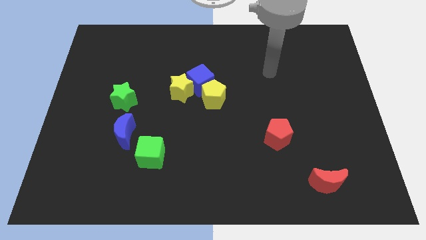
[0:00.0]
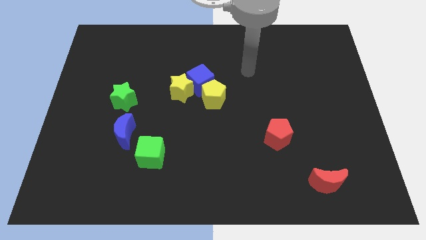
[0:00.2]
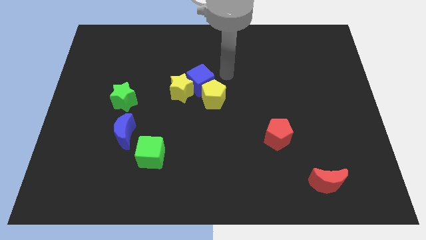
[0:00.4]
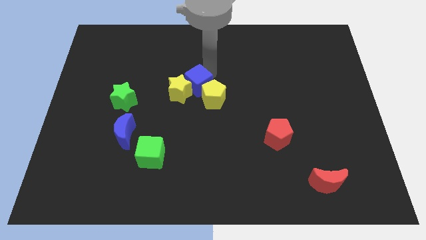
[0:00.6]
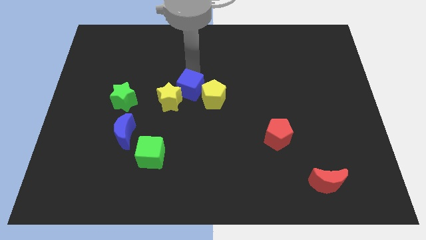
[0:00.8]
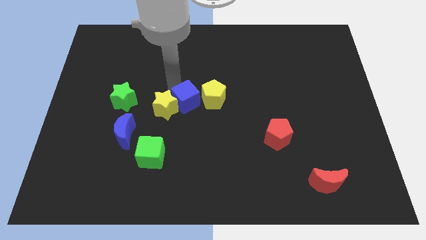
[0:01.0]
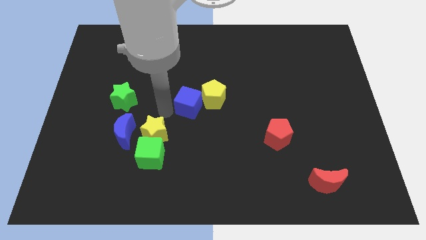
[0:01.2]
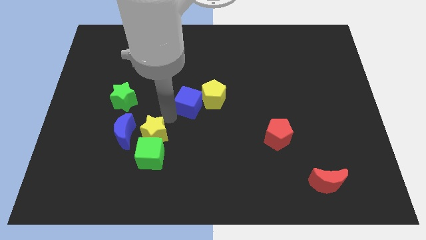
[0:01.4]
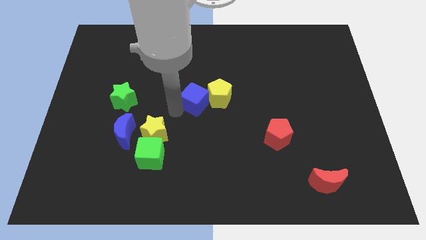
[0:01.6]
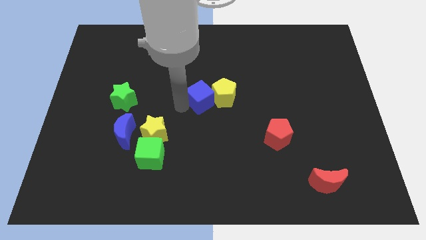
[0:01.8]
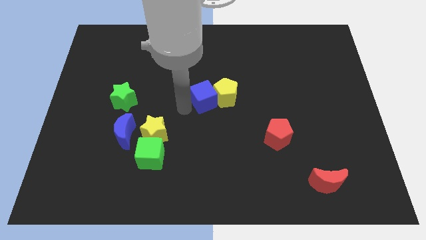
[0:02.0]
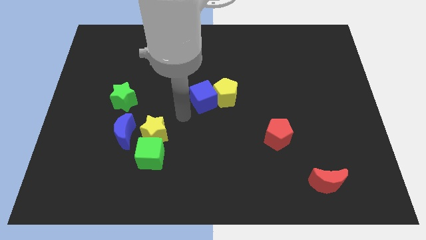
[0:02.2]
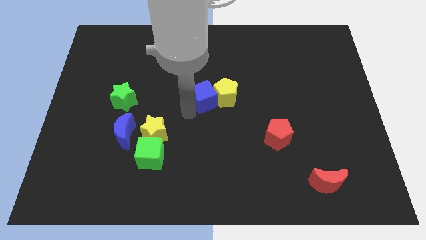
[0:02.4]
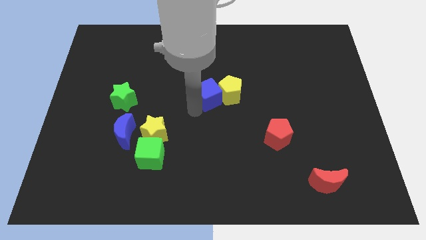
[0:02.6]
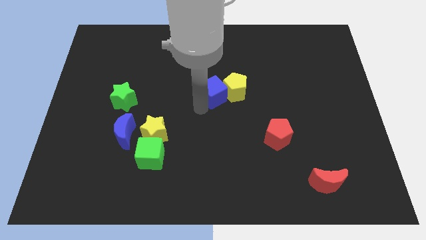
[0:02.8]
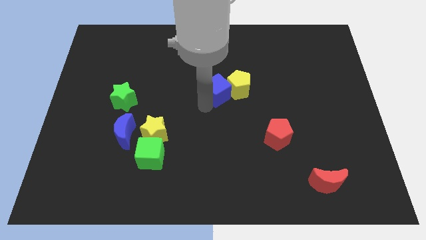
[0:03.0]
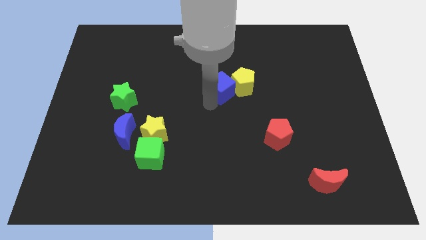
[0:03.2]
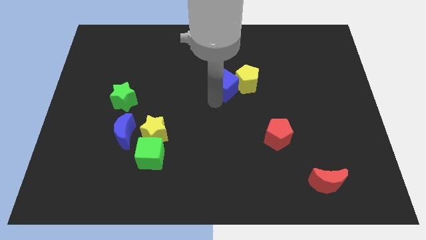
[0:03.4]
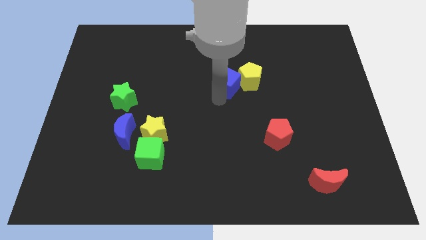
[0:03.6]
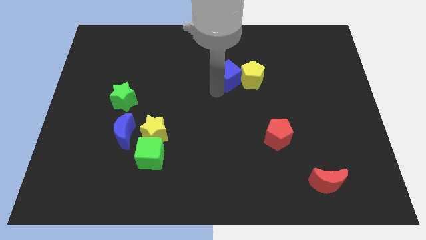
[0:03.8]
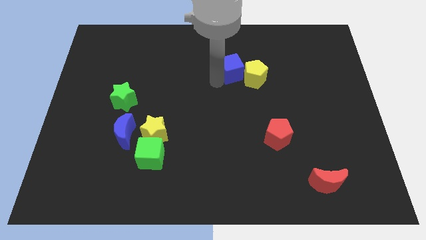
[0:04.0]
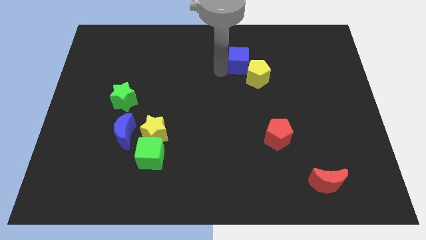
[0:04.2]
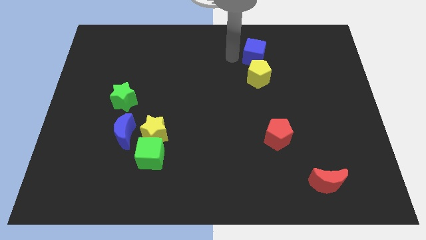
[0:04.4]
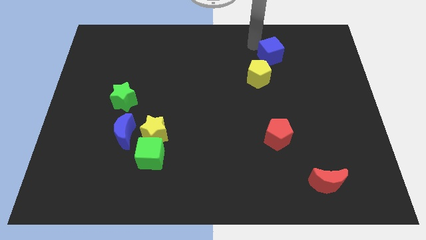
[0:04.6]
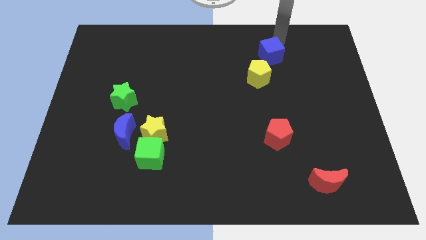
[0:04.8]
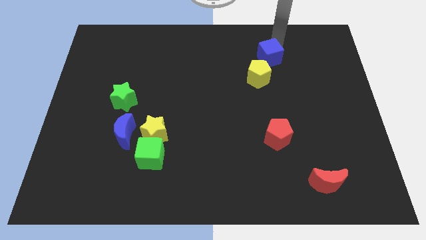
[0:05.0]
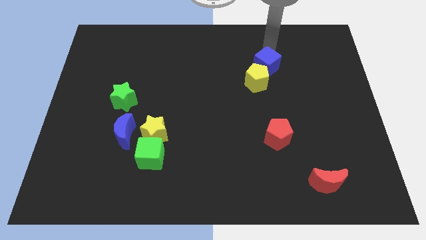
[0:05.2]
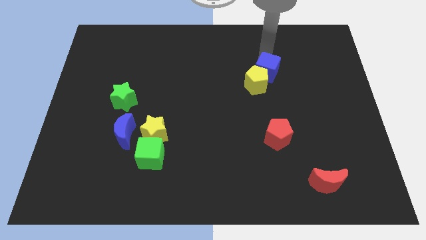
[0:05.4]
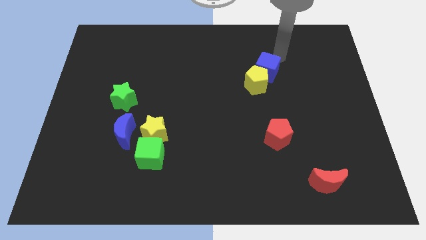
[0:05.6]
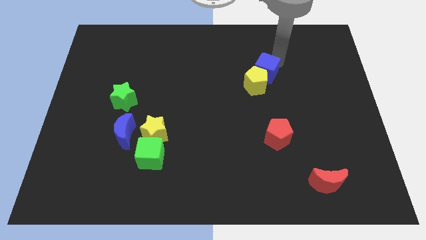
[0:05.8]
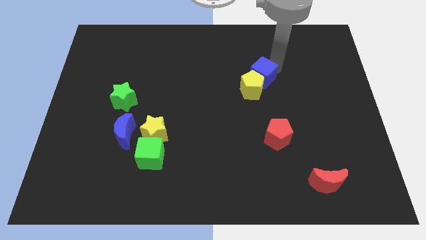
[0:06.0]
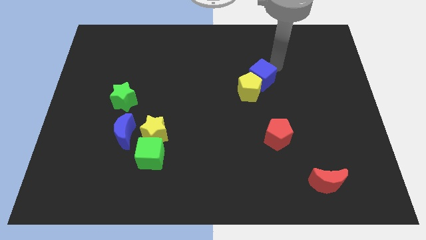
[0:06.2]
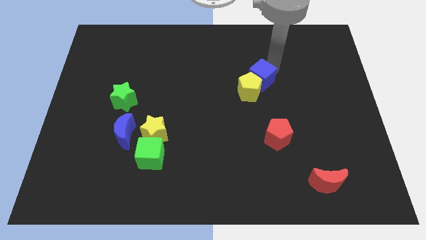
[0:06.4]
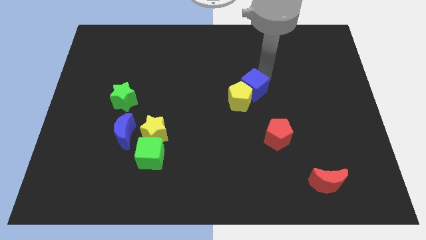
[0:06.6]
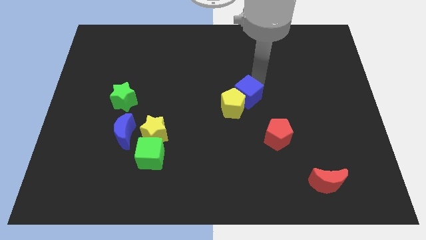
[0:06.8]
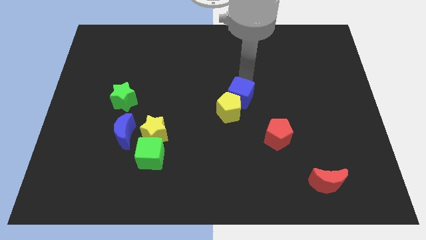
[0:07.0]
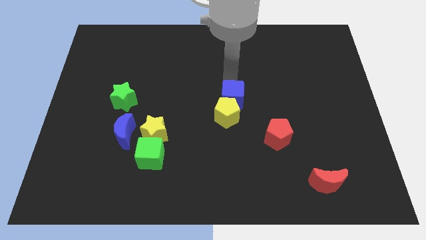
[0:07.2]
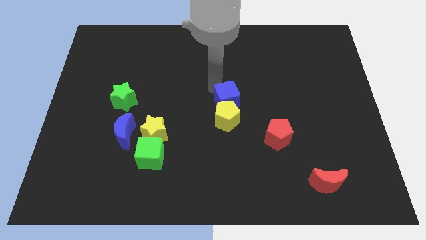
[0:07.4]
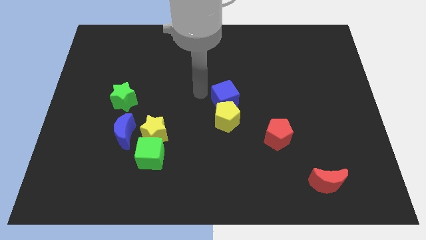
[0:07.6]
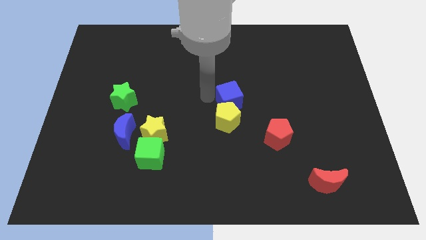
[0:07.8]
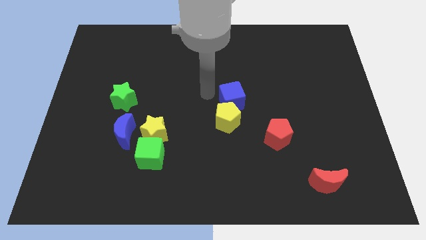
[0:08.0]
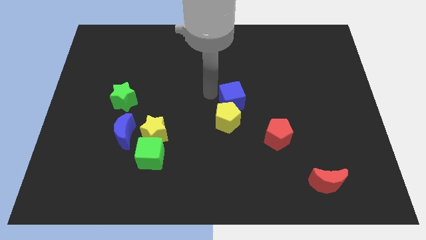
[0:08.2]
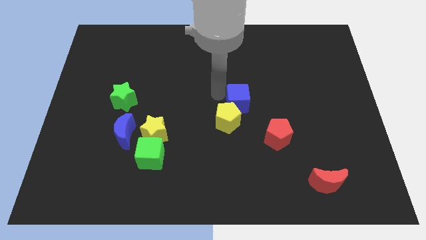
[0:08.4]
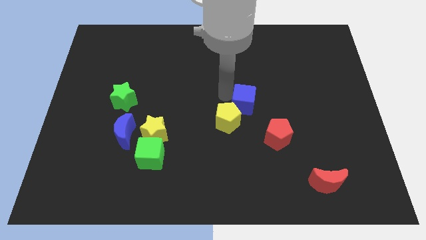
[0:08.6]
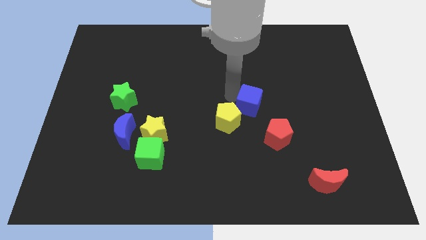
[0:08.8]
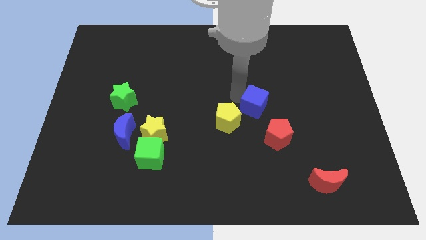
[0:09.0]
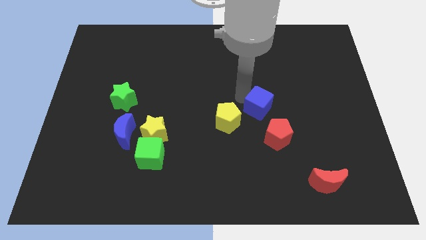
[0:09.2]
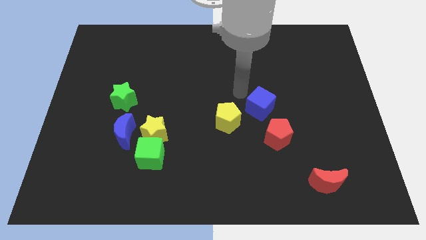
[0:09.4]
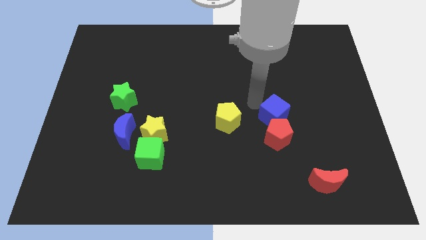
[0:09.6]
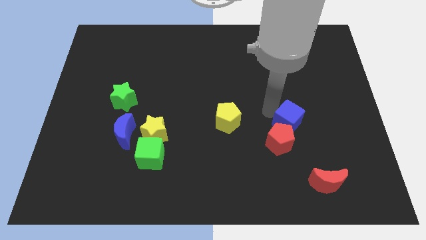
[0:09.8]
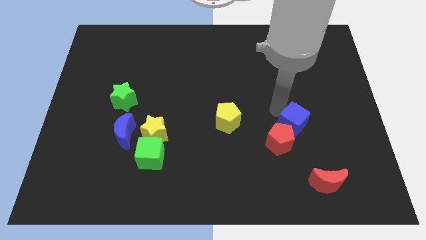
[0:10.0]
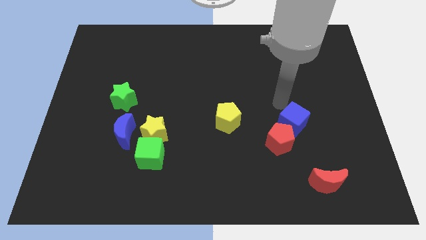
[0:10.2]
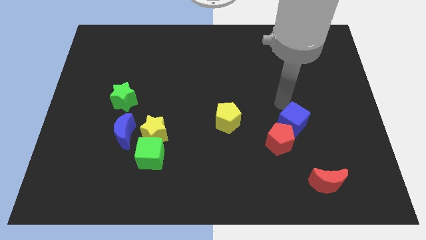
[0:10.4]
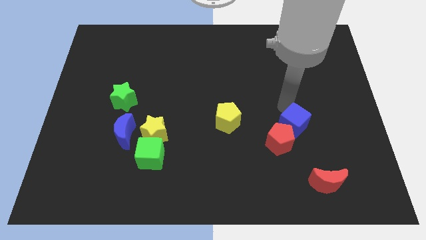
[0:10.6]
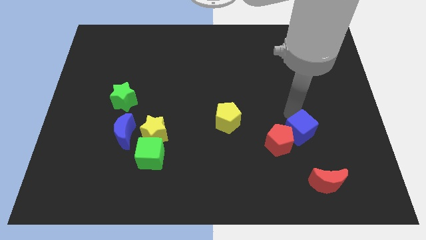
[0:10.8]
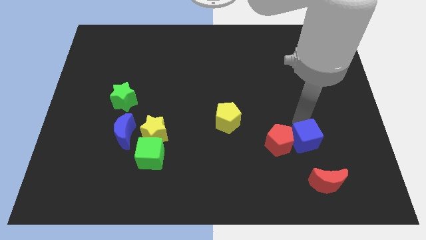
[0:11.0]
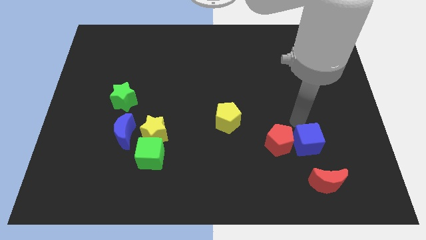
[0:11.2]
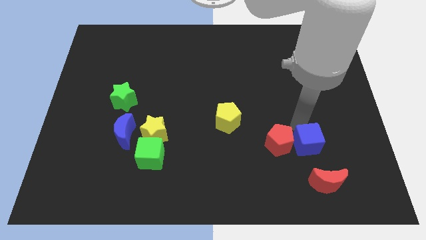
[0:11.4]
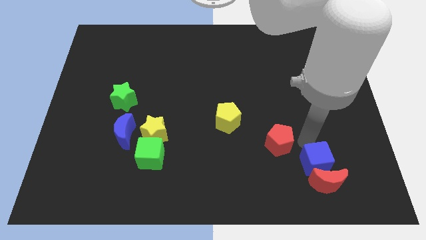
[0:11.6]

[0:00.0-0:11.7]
put the blue cube close to the red moon

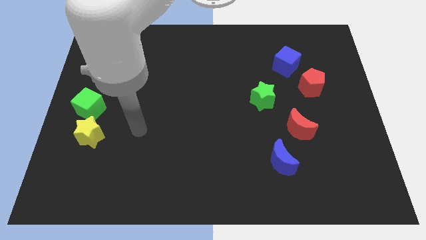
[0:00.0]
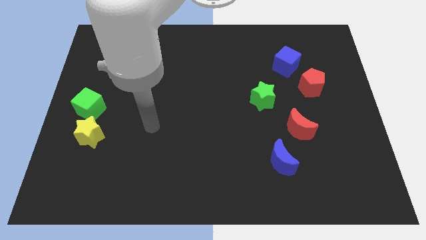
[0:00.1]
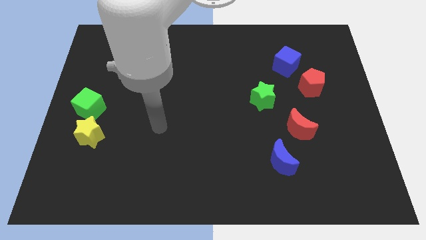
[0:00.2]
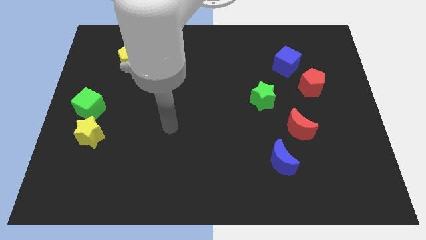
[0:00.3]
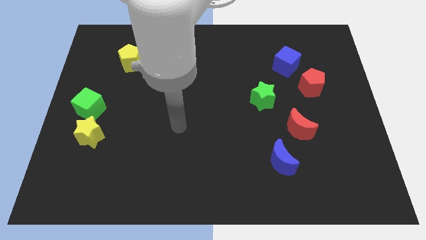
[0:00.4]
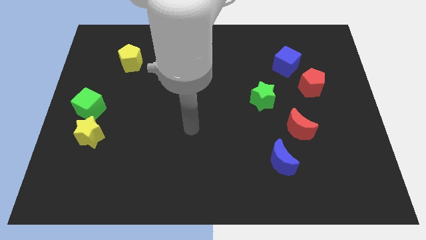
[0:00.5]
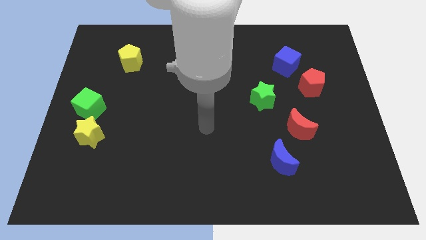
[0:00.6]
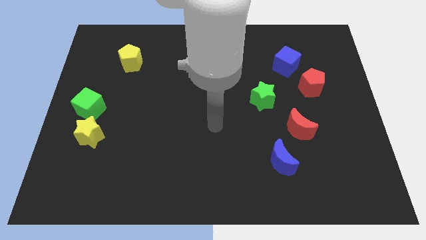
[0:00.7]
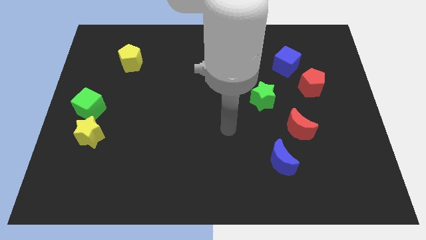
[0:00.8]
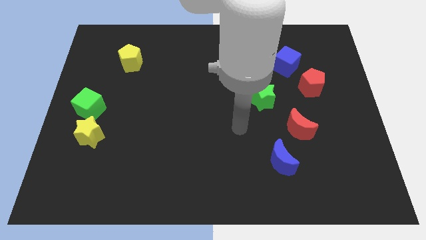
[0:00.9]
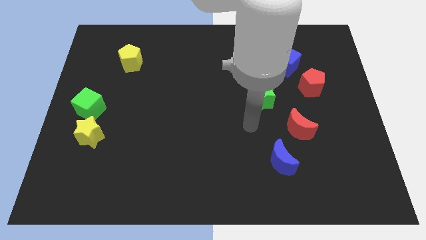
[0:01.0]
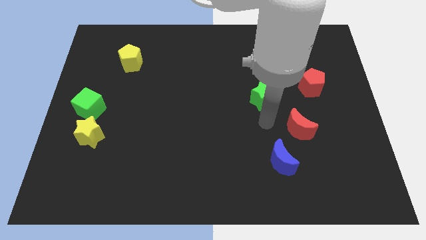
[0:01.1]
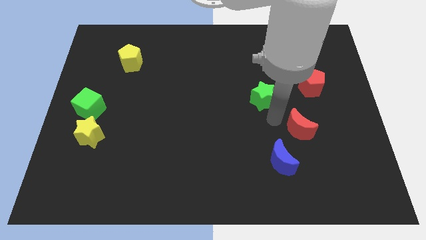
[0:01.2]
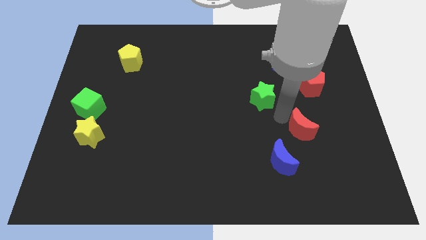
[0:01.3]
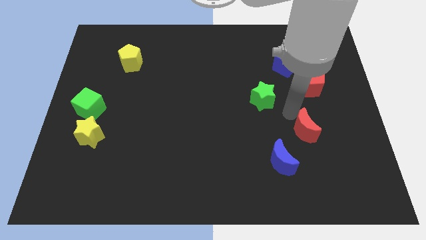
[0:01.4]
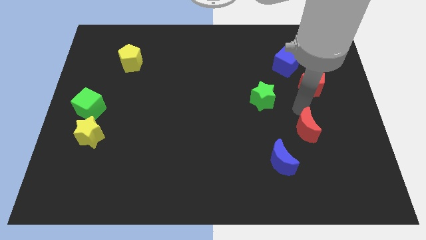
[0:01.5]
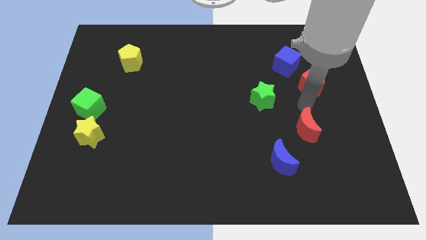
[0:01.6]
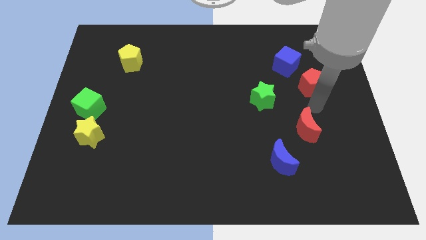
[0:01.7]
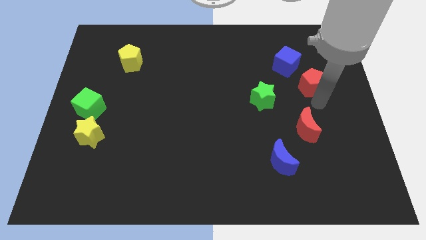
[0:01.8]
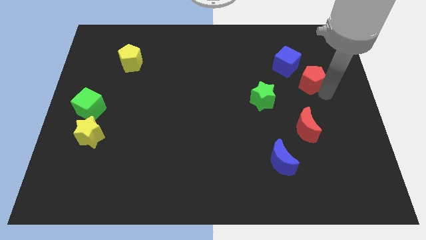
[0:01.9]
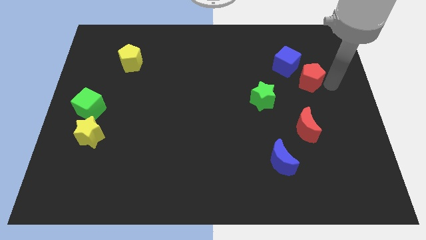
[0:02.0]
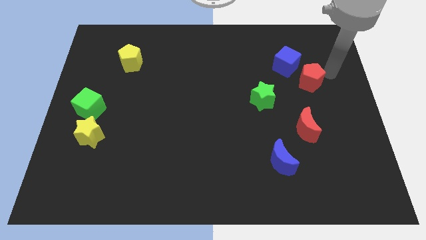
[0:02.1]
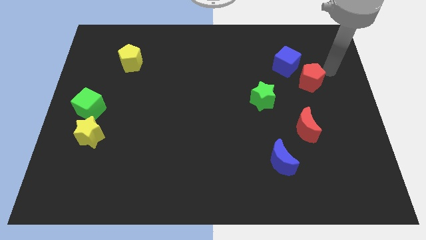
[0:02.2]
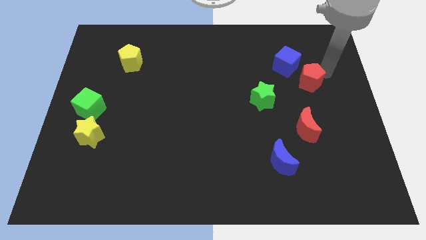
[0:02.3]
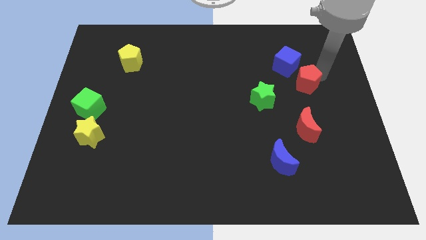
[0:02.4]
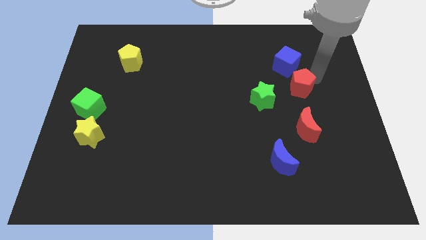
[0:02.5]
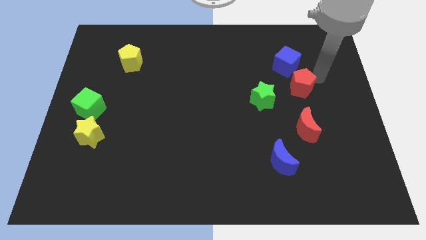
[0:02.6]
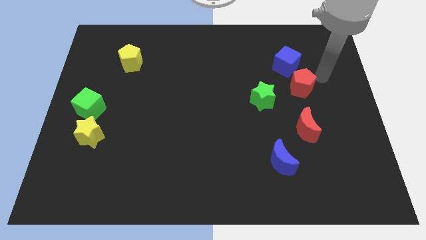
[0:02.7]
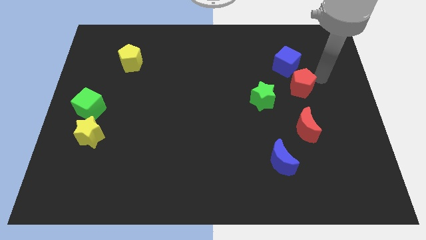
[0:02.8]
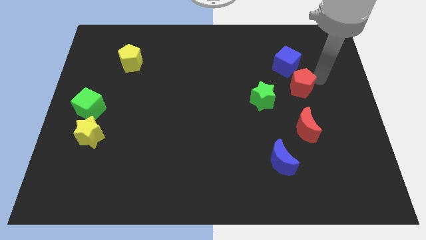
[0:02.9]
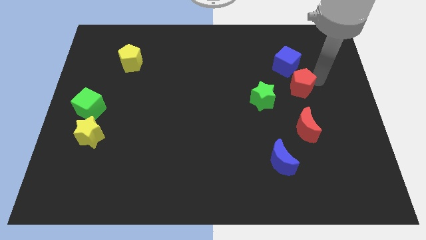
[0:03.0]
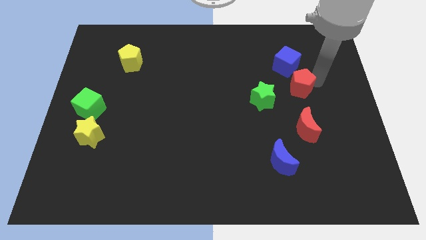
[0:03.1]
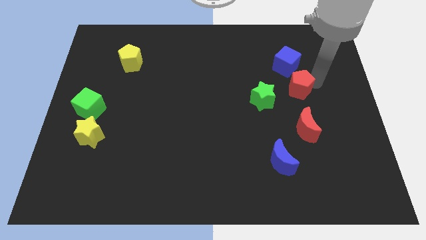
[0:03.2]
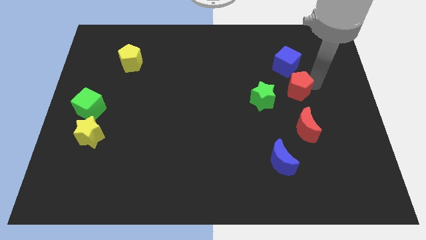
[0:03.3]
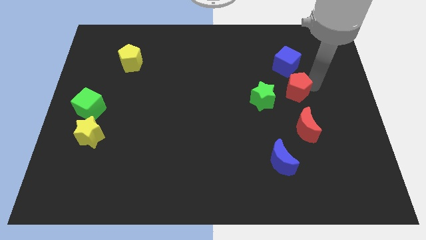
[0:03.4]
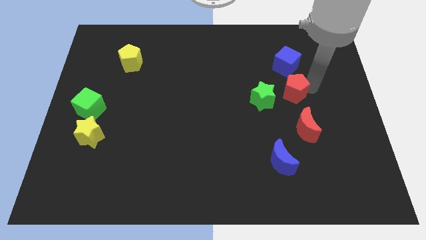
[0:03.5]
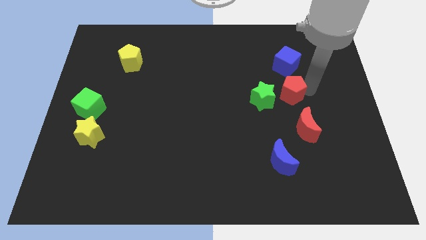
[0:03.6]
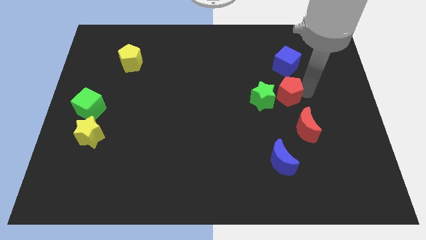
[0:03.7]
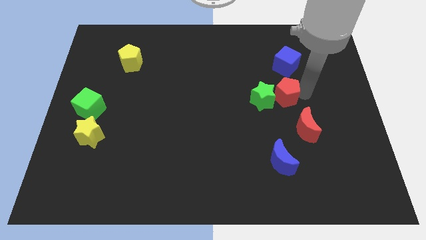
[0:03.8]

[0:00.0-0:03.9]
push the red pentagon next to the green star
